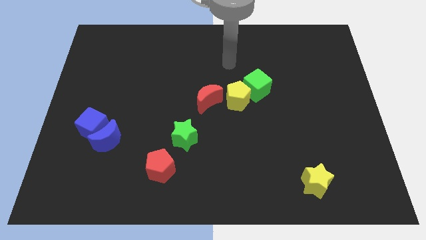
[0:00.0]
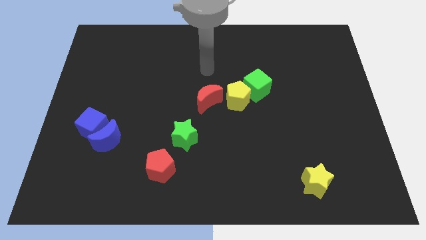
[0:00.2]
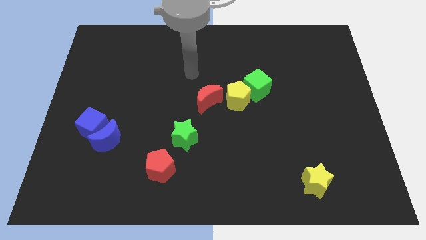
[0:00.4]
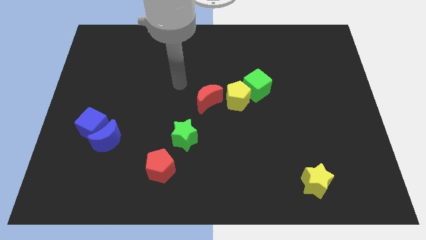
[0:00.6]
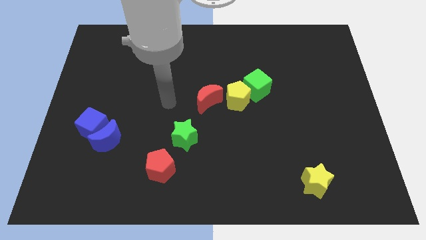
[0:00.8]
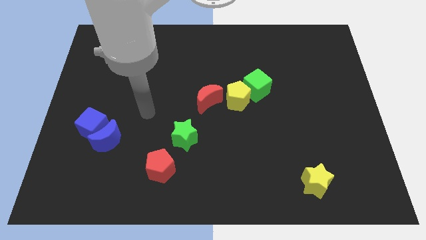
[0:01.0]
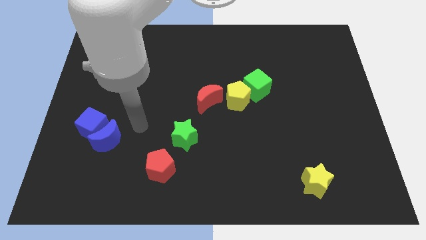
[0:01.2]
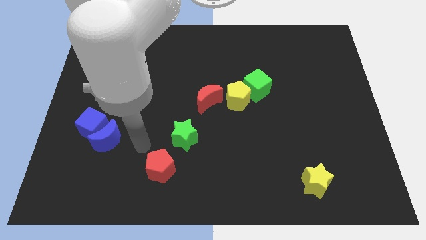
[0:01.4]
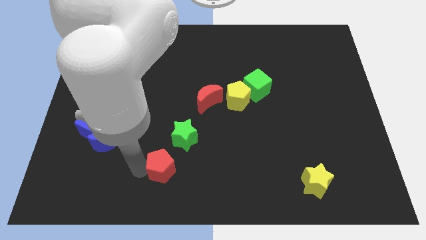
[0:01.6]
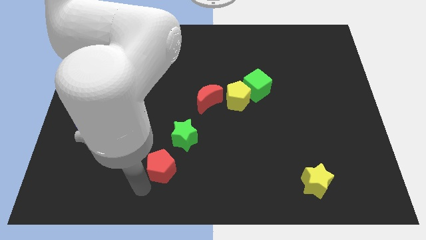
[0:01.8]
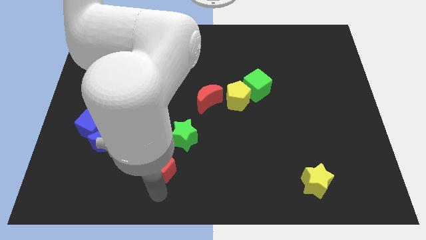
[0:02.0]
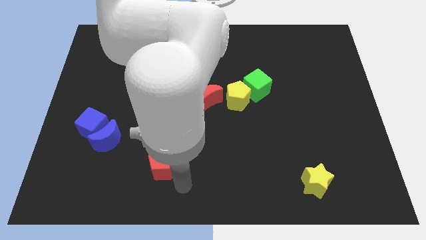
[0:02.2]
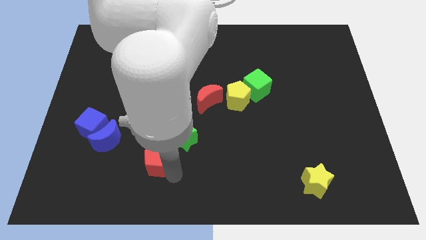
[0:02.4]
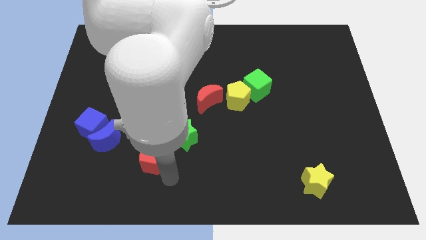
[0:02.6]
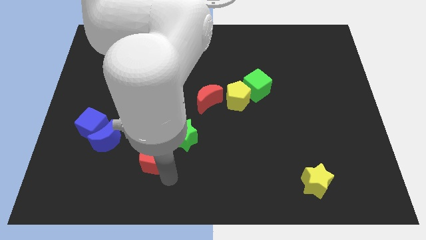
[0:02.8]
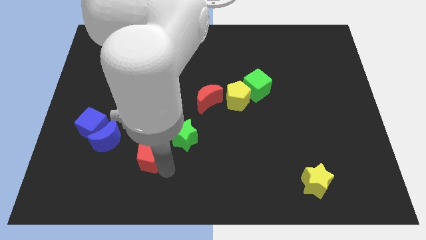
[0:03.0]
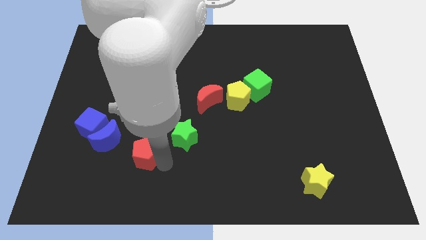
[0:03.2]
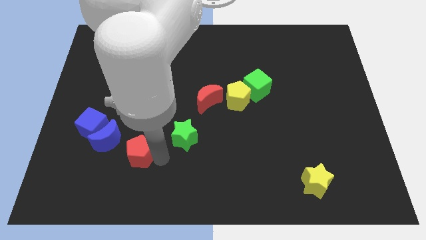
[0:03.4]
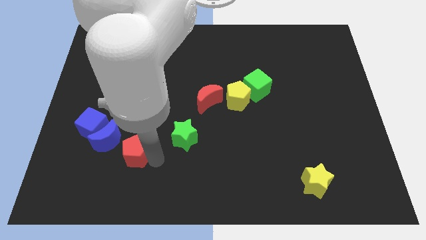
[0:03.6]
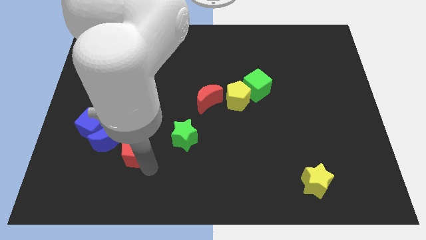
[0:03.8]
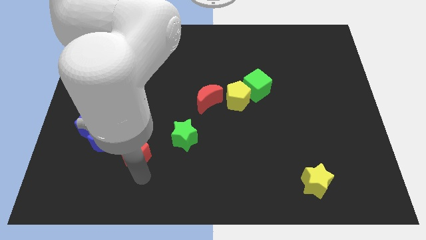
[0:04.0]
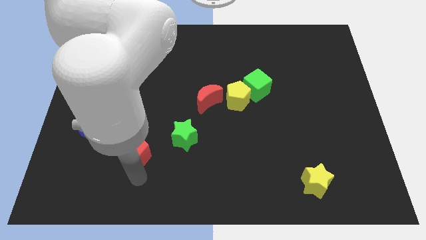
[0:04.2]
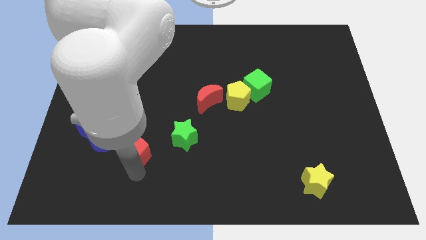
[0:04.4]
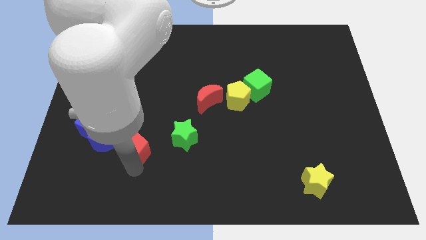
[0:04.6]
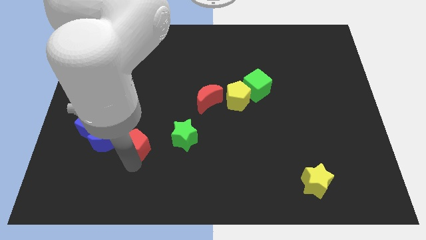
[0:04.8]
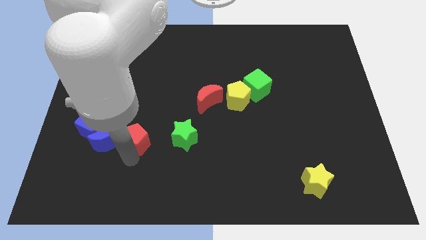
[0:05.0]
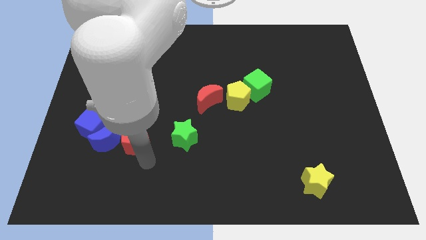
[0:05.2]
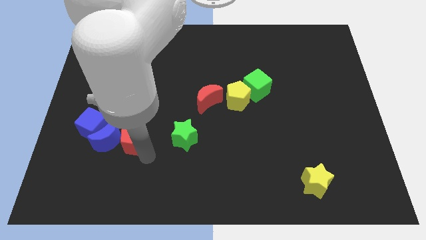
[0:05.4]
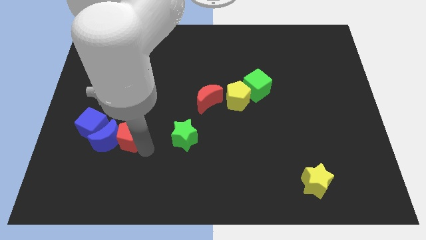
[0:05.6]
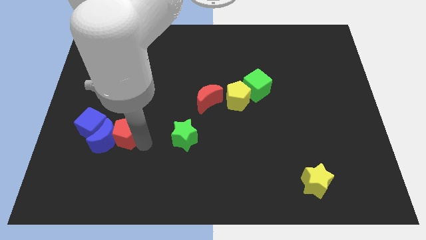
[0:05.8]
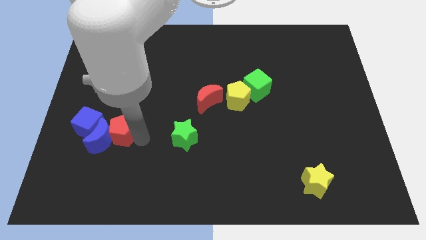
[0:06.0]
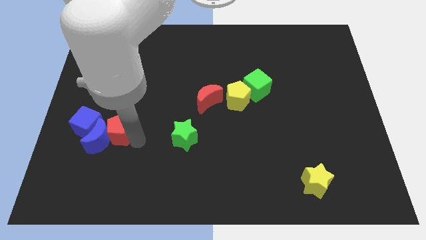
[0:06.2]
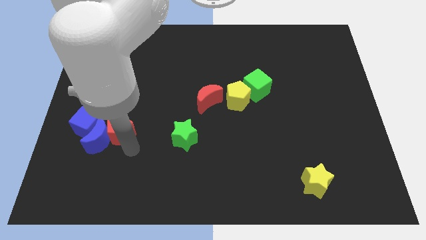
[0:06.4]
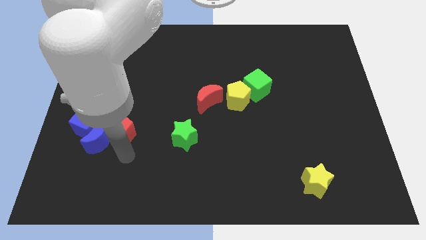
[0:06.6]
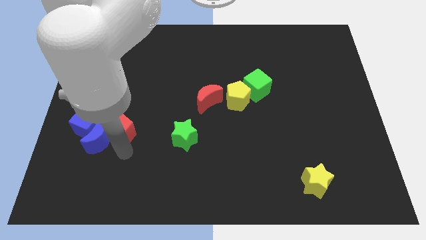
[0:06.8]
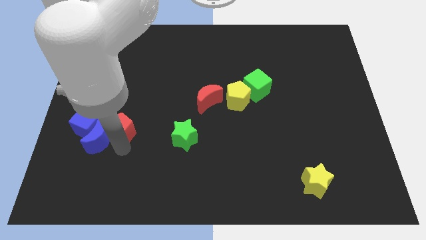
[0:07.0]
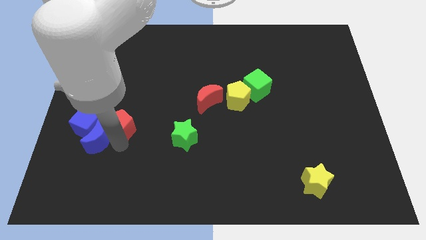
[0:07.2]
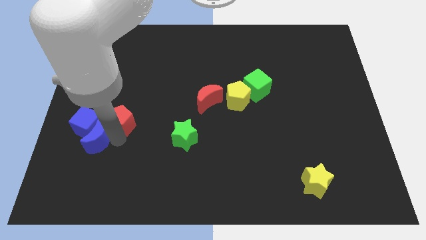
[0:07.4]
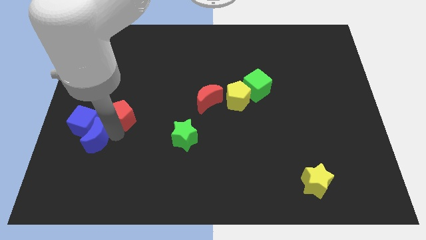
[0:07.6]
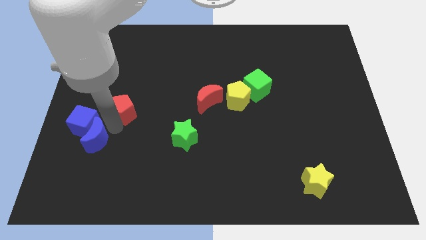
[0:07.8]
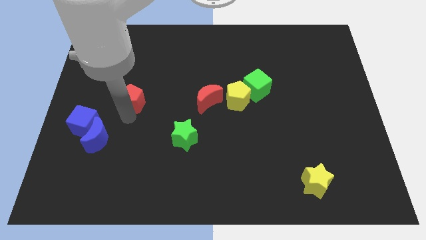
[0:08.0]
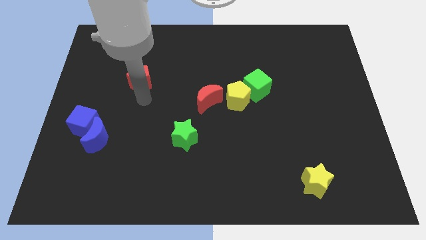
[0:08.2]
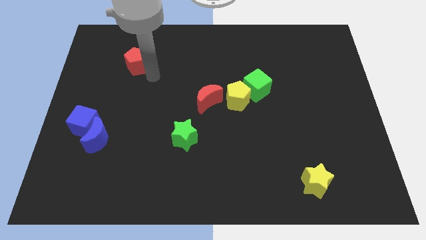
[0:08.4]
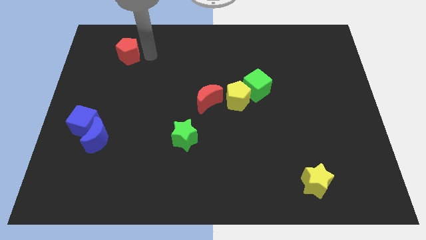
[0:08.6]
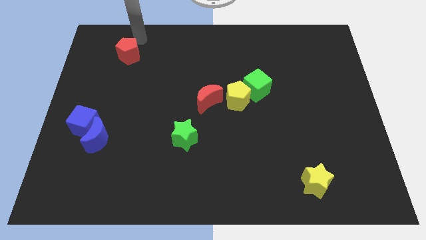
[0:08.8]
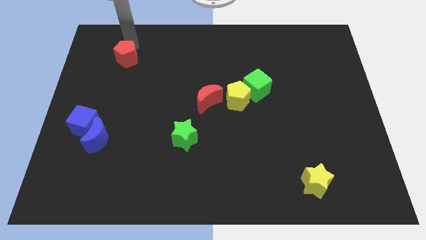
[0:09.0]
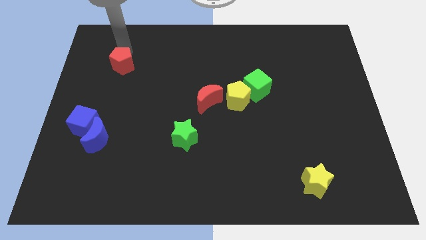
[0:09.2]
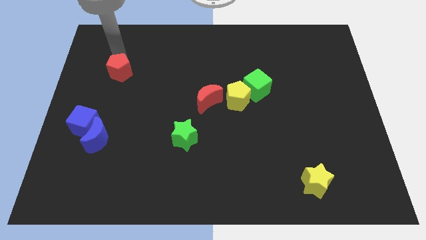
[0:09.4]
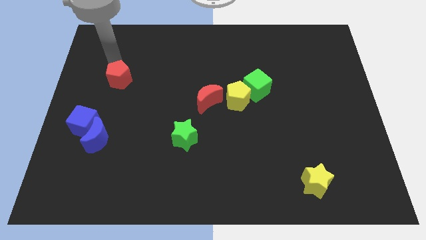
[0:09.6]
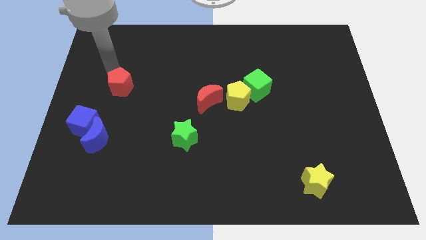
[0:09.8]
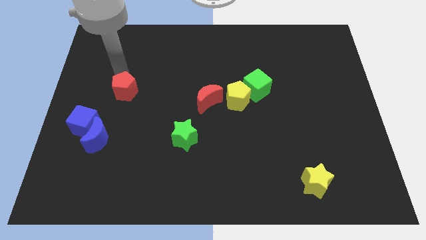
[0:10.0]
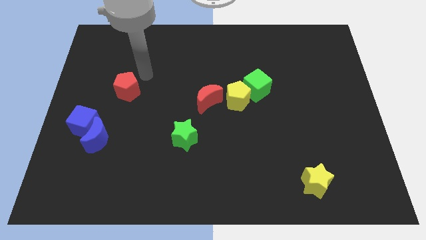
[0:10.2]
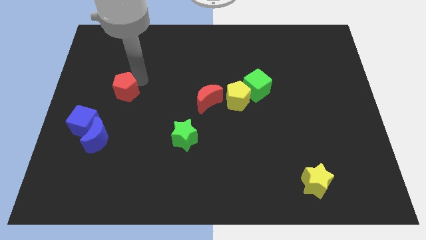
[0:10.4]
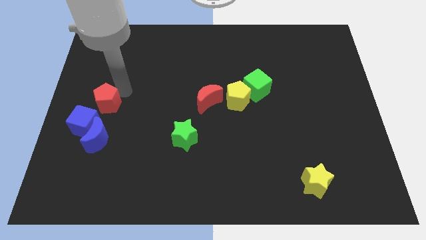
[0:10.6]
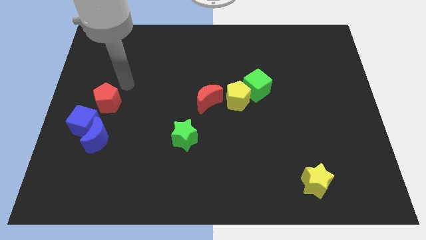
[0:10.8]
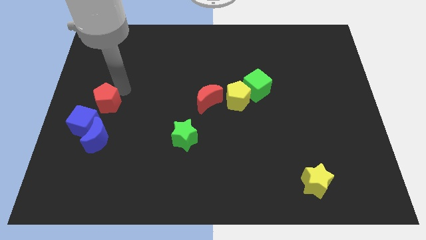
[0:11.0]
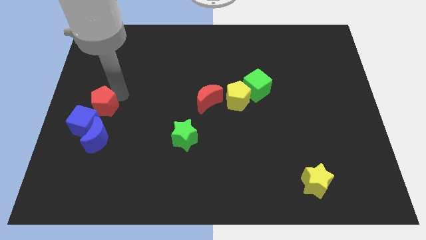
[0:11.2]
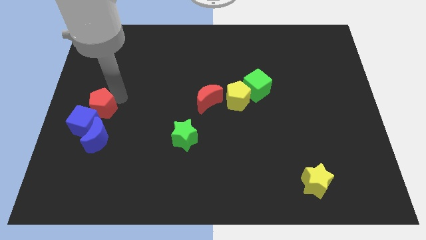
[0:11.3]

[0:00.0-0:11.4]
move the red pentagon close to the blue cube

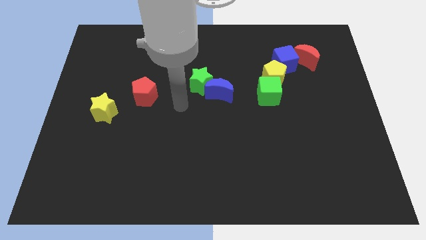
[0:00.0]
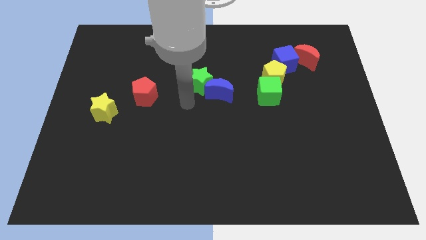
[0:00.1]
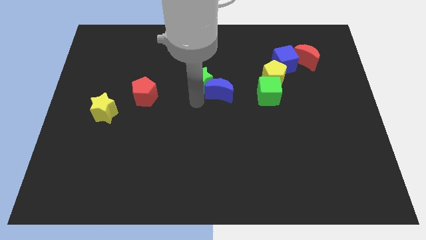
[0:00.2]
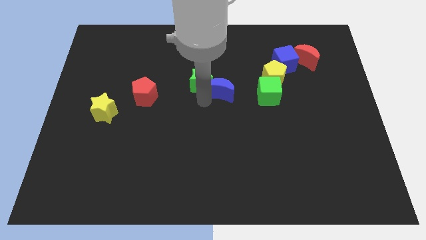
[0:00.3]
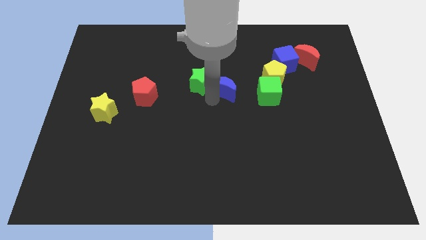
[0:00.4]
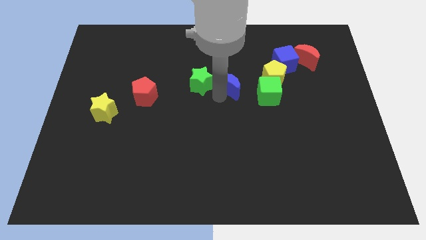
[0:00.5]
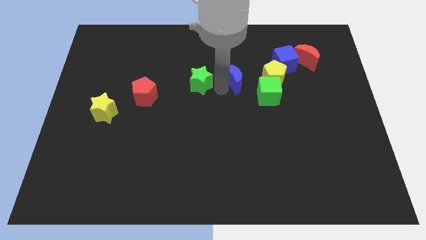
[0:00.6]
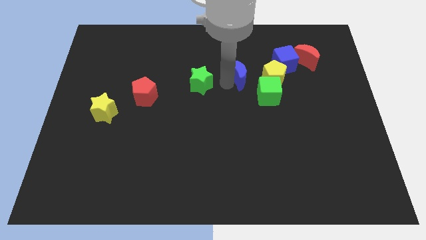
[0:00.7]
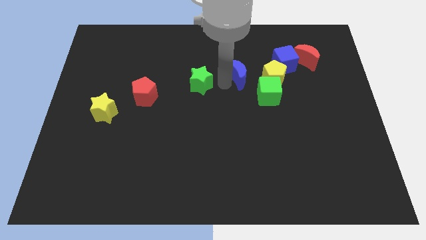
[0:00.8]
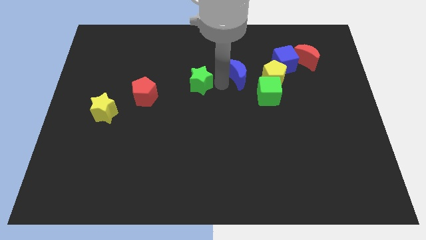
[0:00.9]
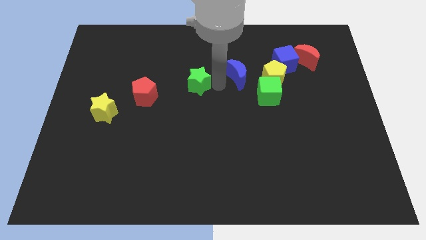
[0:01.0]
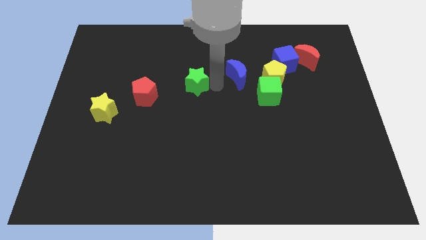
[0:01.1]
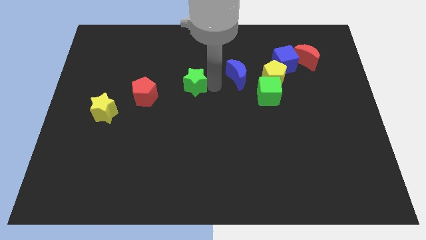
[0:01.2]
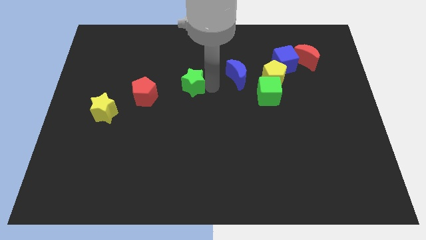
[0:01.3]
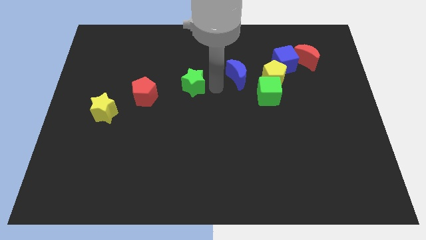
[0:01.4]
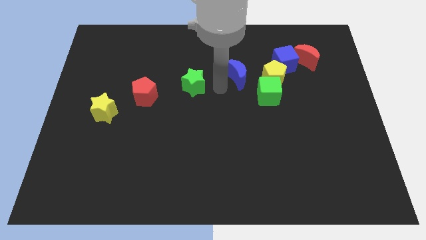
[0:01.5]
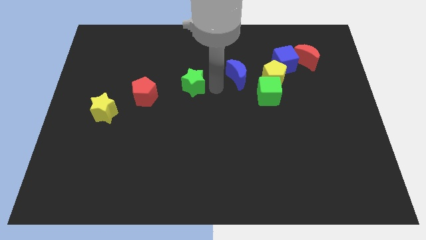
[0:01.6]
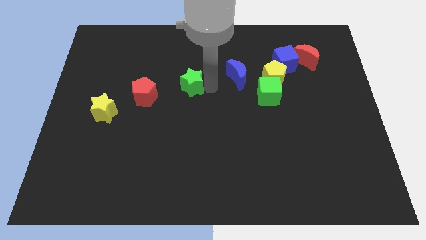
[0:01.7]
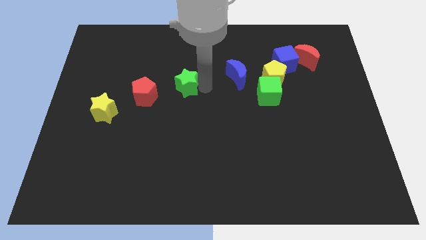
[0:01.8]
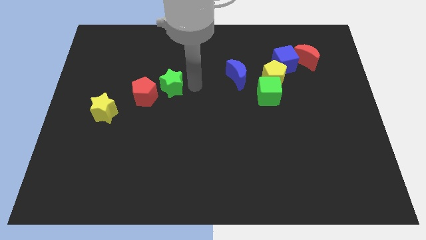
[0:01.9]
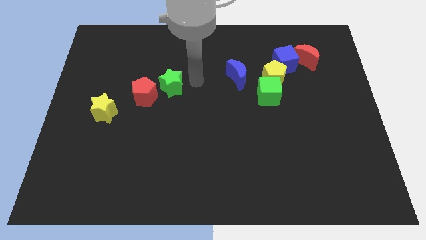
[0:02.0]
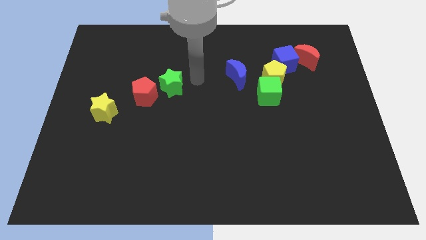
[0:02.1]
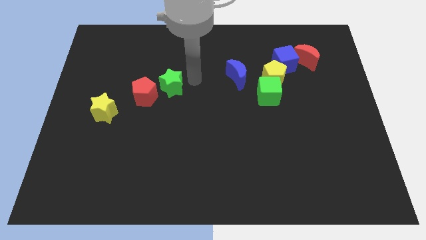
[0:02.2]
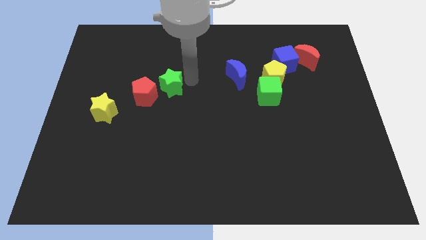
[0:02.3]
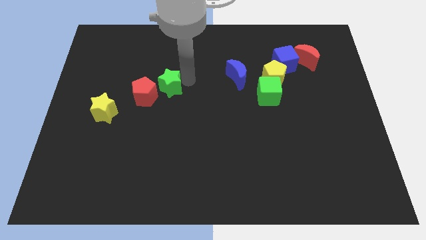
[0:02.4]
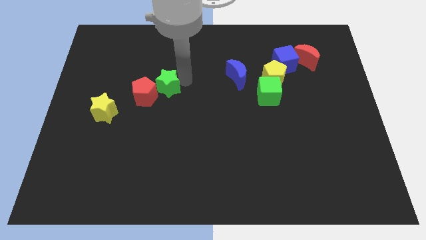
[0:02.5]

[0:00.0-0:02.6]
put the green star close to the red pentagon
